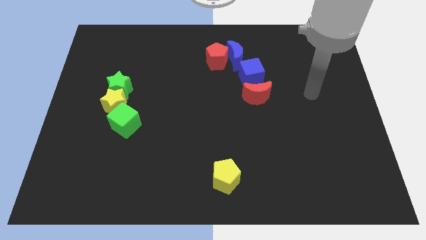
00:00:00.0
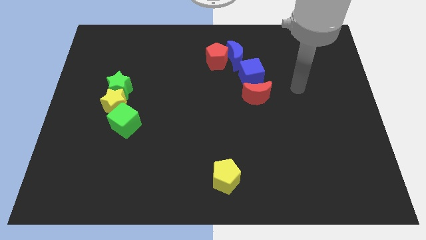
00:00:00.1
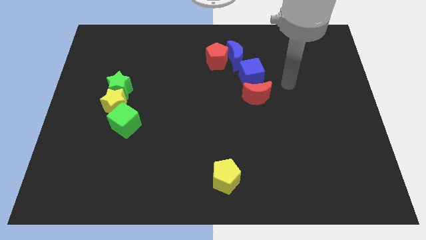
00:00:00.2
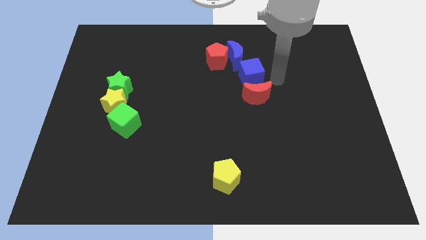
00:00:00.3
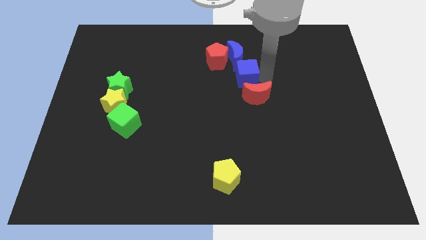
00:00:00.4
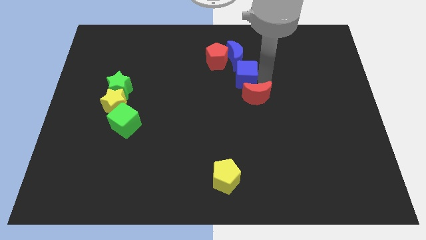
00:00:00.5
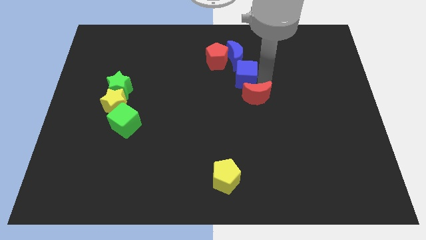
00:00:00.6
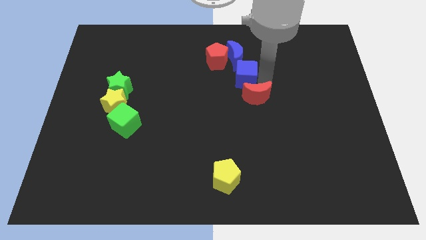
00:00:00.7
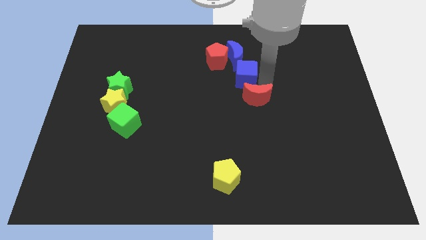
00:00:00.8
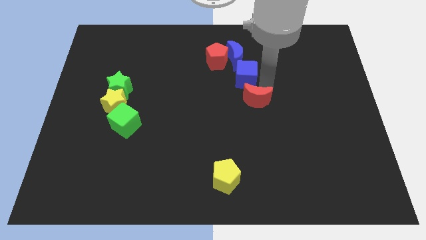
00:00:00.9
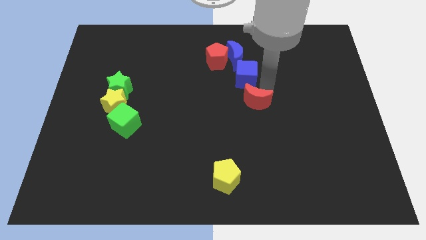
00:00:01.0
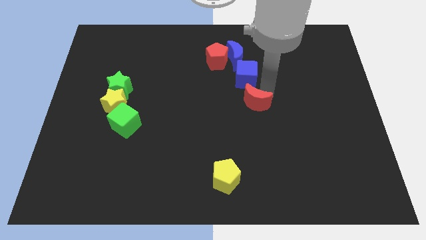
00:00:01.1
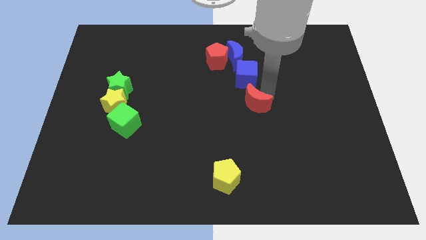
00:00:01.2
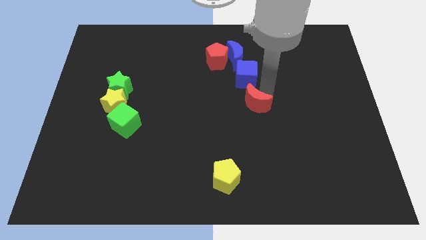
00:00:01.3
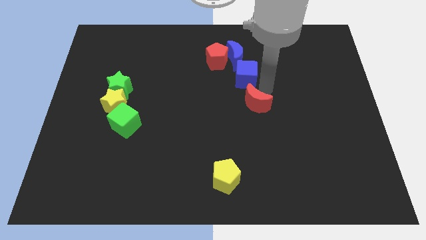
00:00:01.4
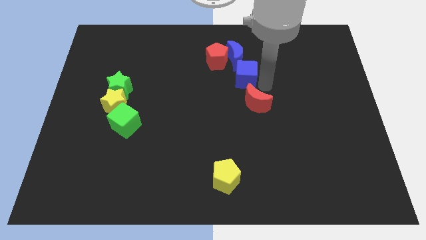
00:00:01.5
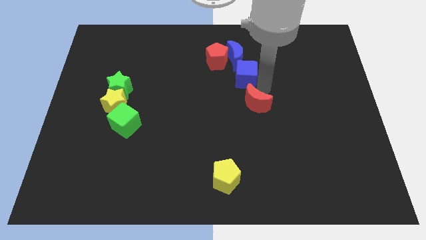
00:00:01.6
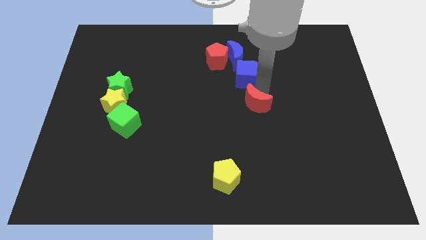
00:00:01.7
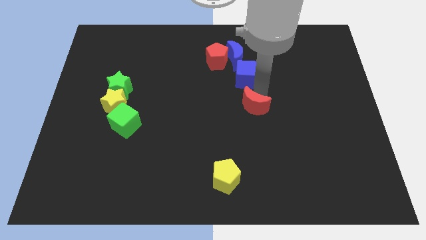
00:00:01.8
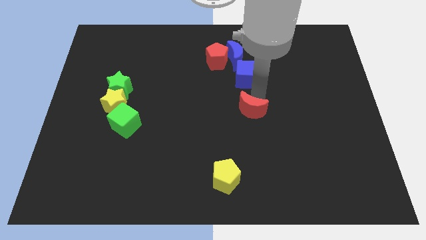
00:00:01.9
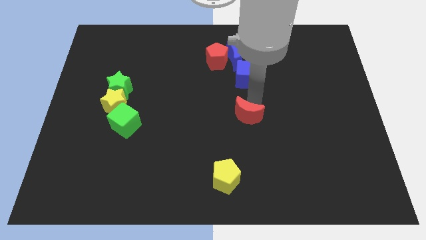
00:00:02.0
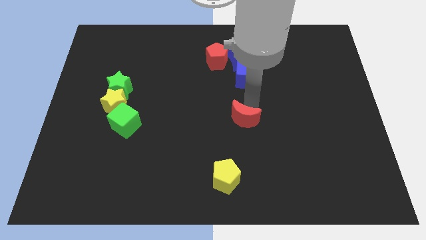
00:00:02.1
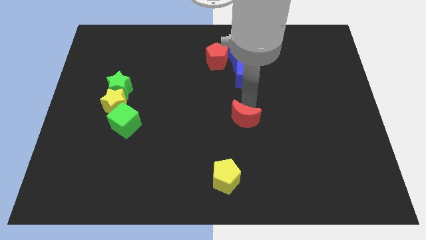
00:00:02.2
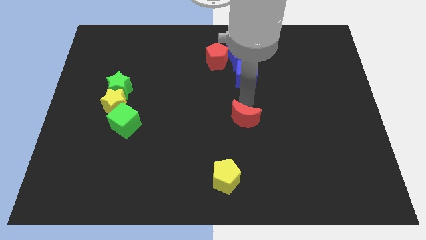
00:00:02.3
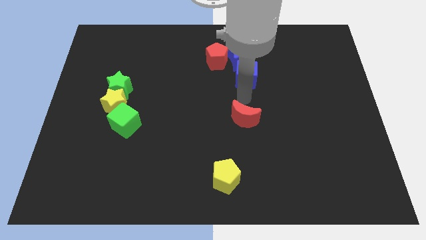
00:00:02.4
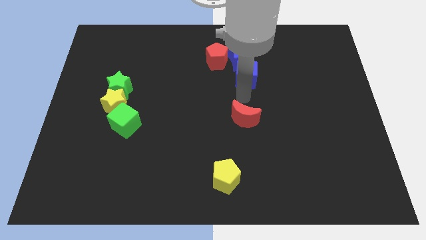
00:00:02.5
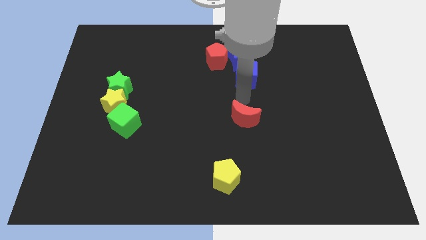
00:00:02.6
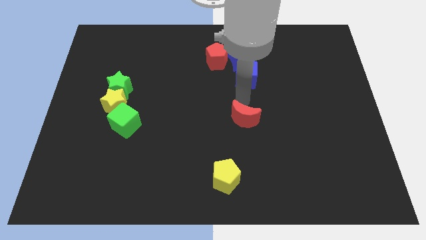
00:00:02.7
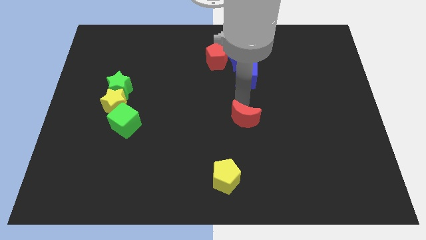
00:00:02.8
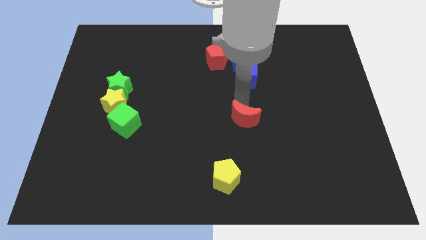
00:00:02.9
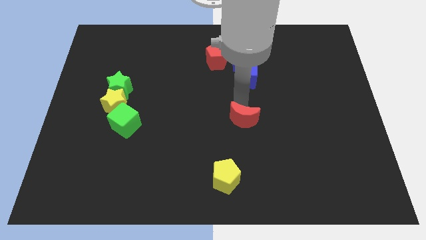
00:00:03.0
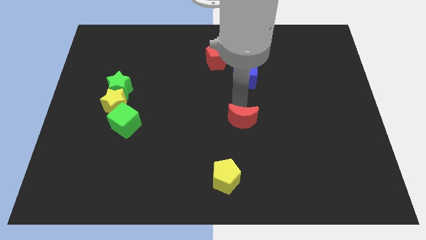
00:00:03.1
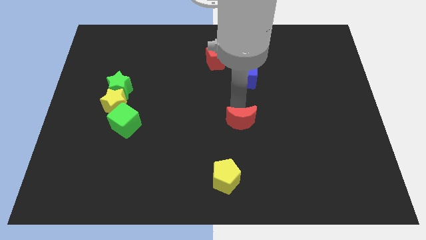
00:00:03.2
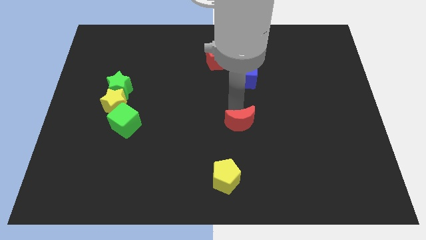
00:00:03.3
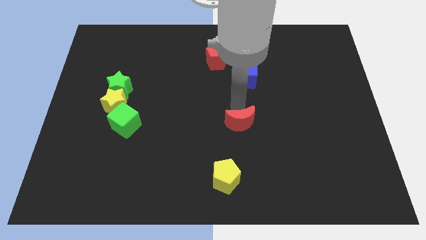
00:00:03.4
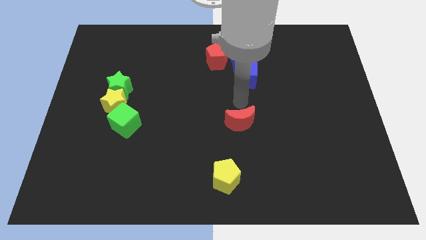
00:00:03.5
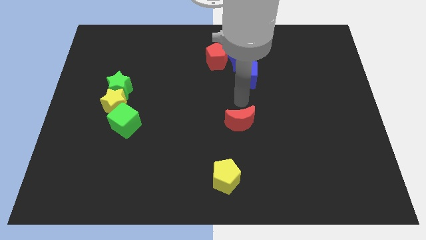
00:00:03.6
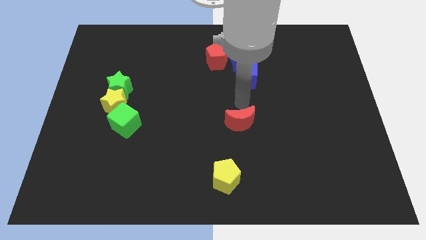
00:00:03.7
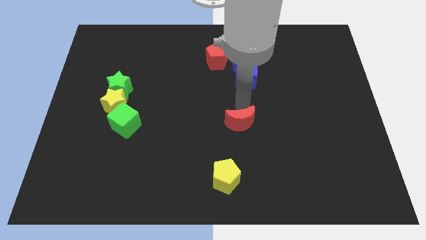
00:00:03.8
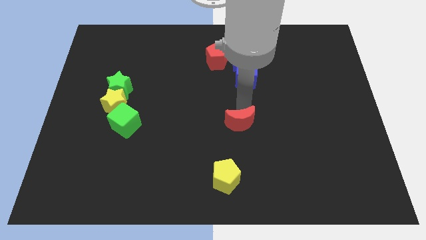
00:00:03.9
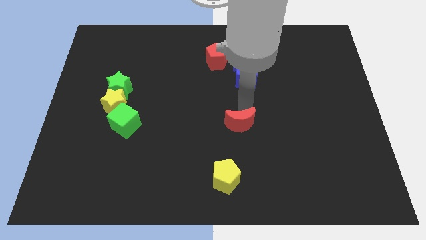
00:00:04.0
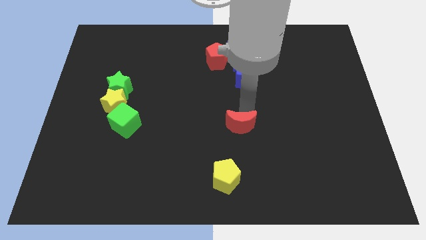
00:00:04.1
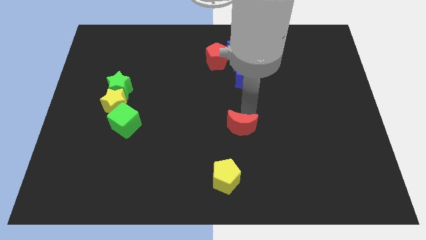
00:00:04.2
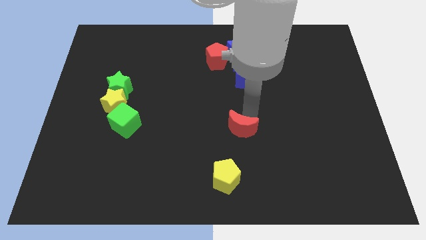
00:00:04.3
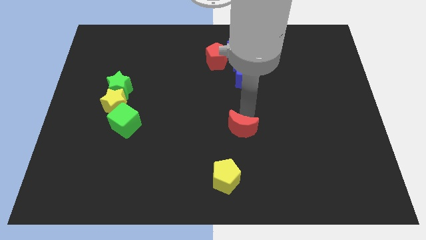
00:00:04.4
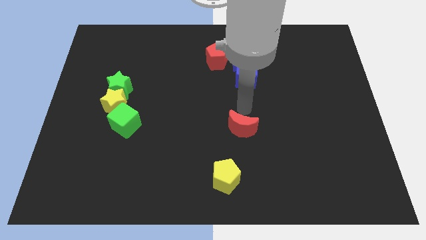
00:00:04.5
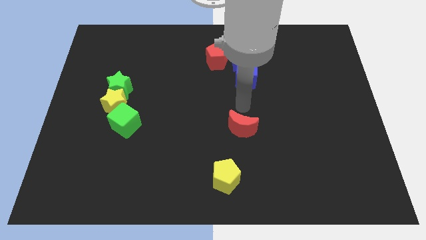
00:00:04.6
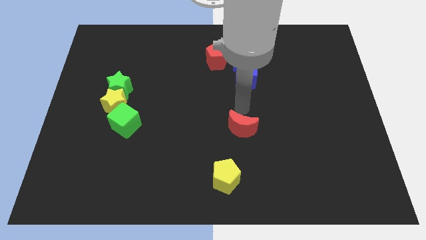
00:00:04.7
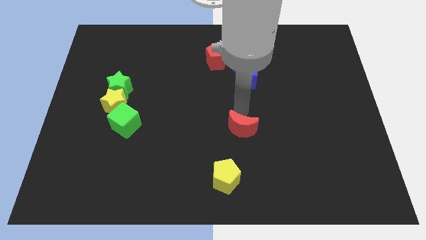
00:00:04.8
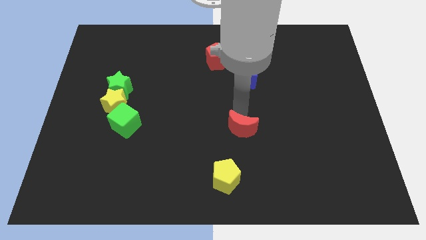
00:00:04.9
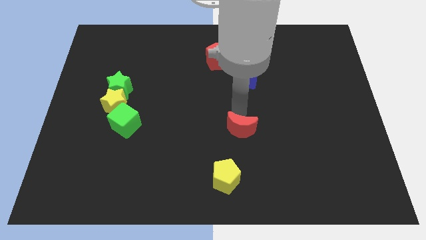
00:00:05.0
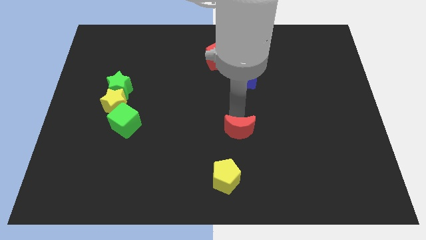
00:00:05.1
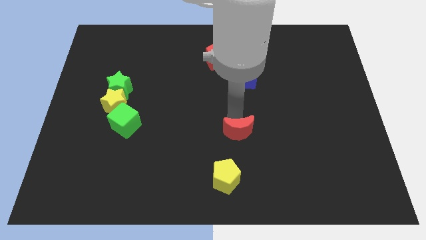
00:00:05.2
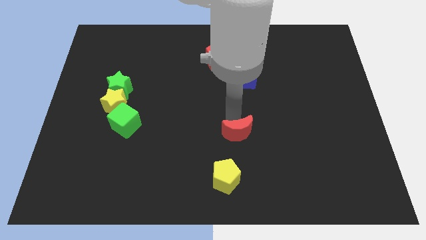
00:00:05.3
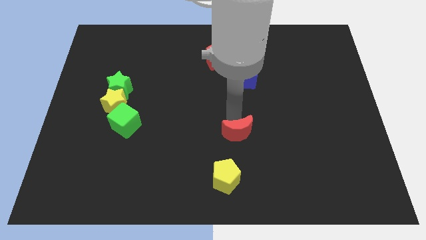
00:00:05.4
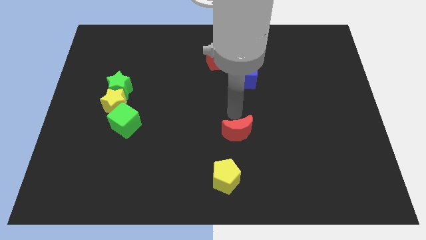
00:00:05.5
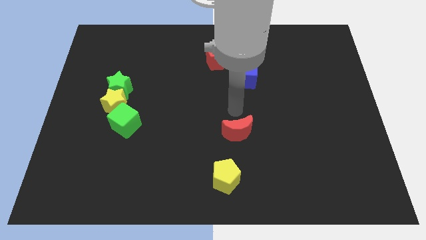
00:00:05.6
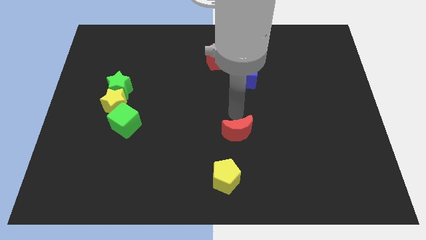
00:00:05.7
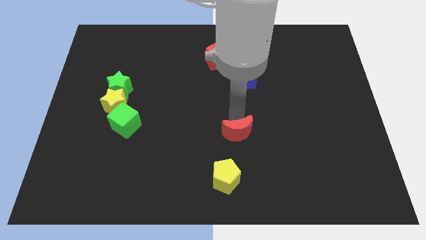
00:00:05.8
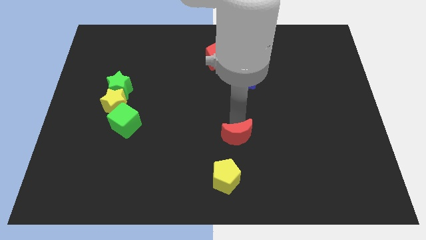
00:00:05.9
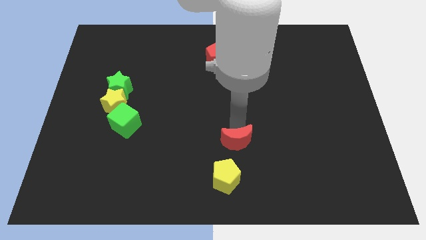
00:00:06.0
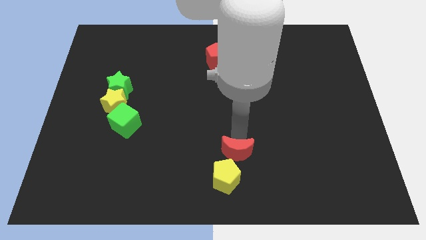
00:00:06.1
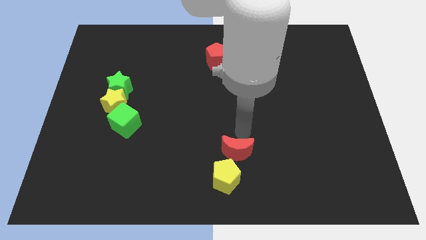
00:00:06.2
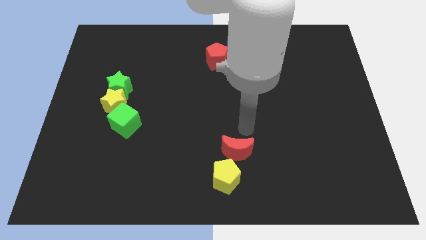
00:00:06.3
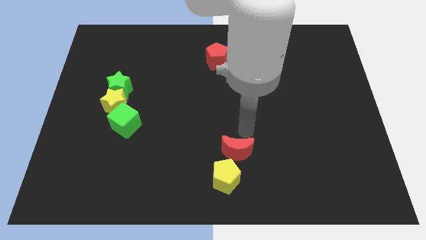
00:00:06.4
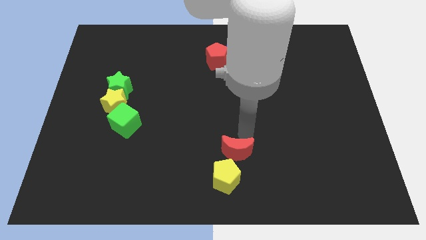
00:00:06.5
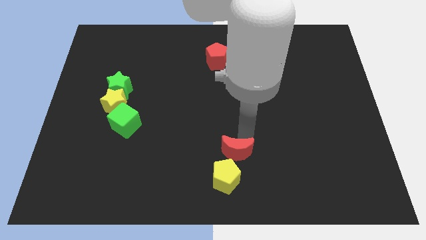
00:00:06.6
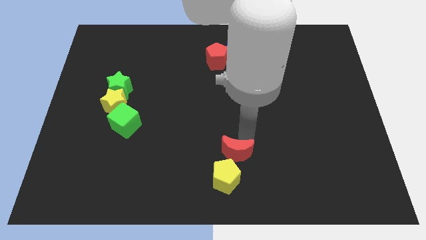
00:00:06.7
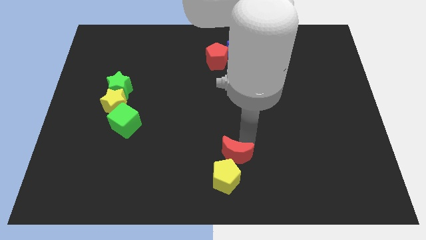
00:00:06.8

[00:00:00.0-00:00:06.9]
put the red moon to the yellow pentagon
